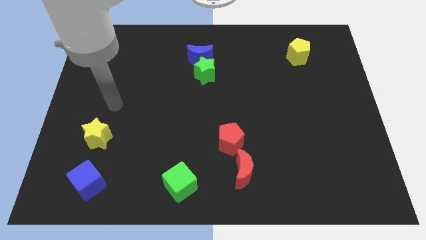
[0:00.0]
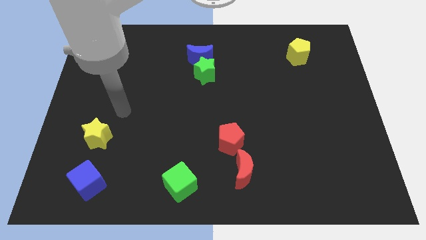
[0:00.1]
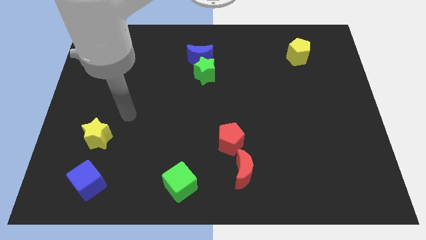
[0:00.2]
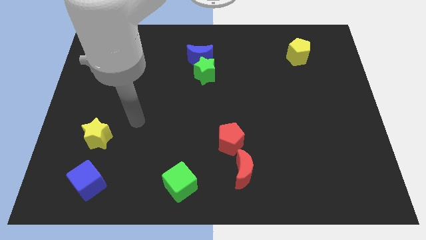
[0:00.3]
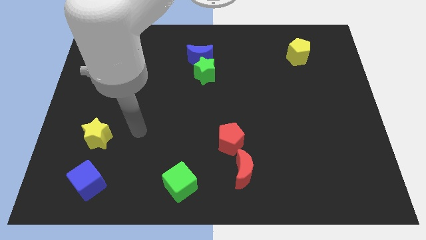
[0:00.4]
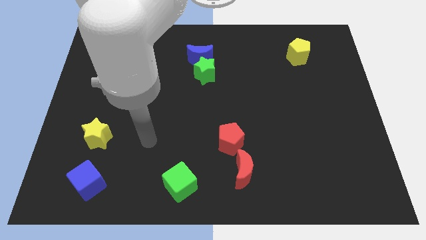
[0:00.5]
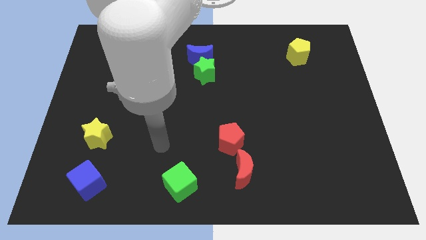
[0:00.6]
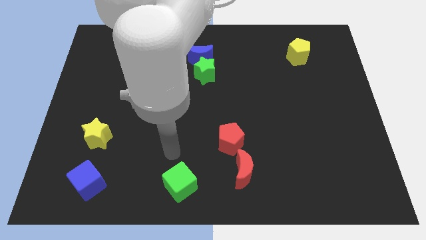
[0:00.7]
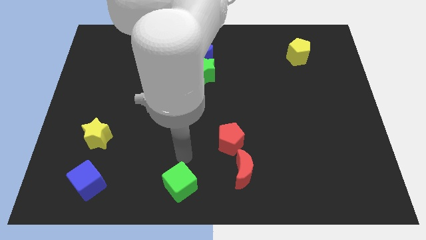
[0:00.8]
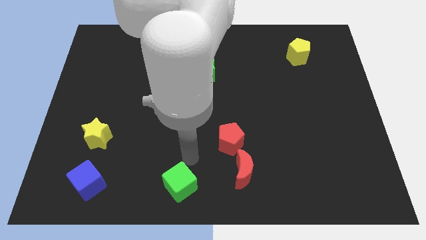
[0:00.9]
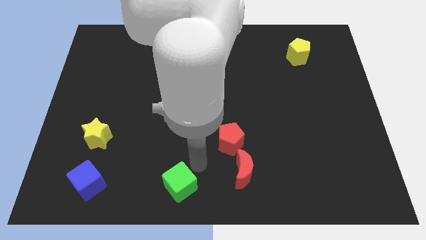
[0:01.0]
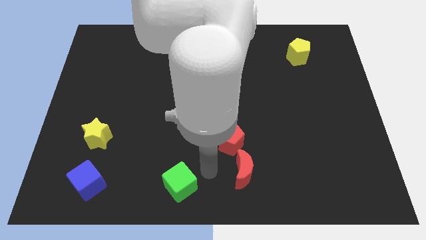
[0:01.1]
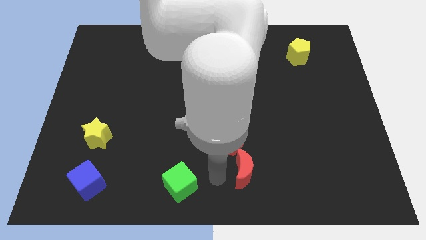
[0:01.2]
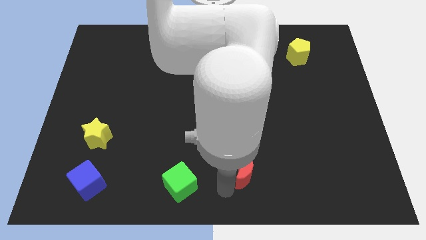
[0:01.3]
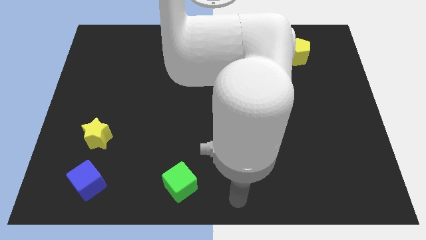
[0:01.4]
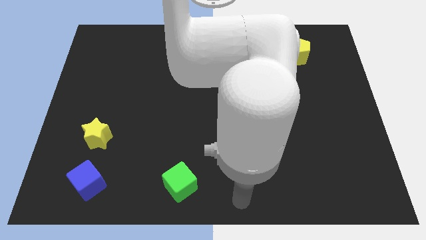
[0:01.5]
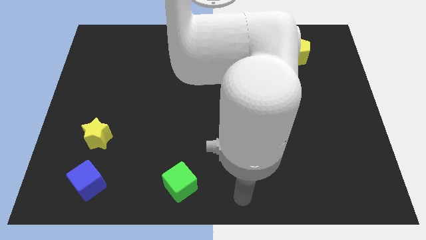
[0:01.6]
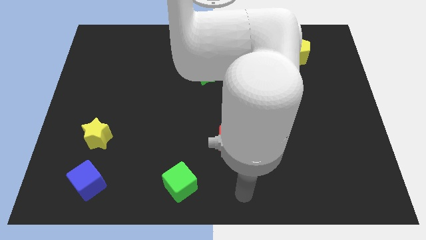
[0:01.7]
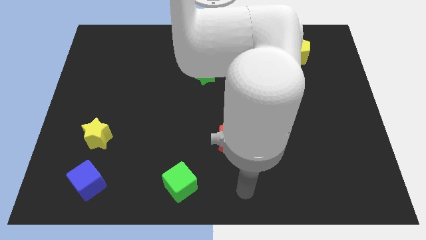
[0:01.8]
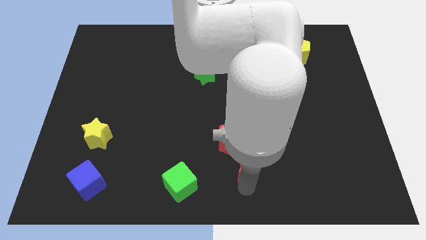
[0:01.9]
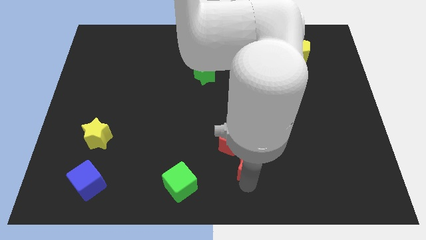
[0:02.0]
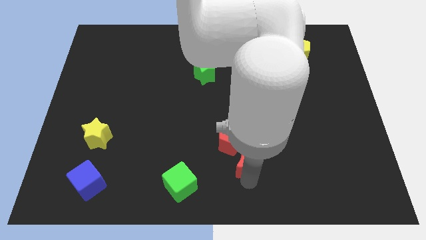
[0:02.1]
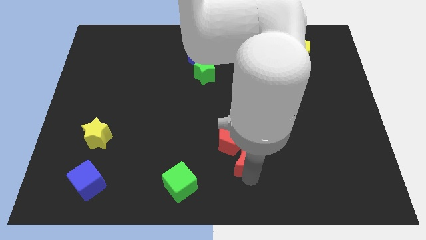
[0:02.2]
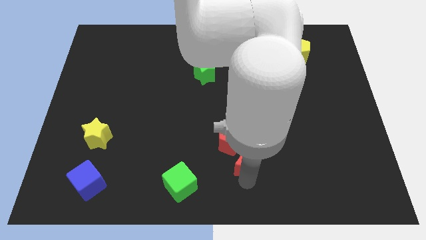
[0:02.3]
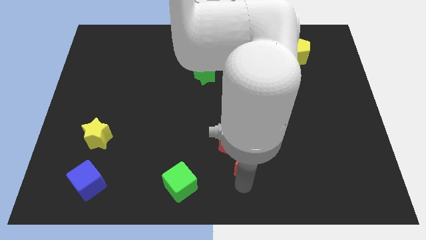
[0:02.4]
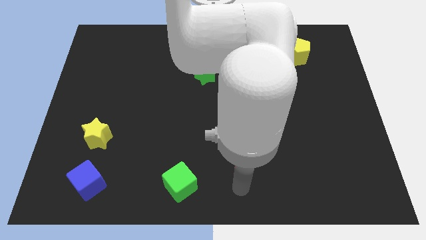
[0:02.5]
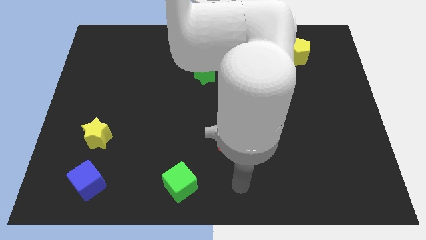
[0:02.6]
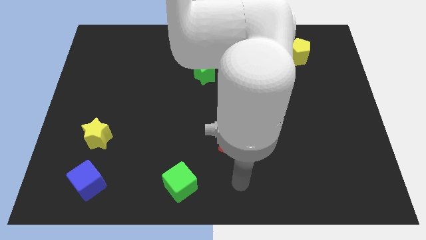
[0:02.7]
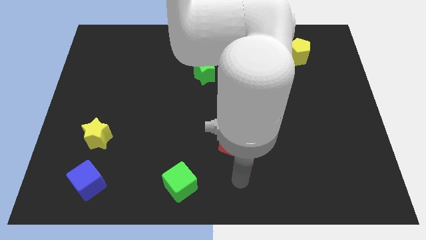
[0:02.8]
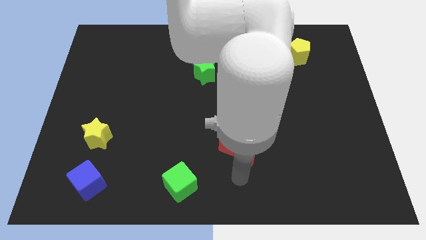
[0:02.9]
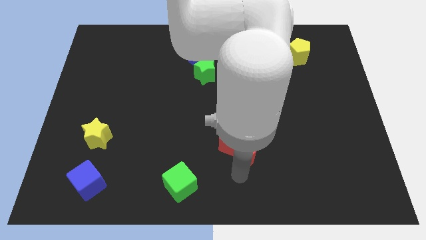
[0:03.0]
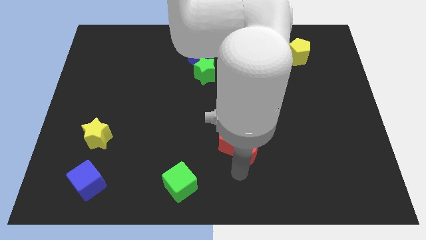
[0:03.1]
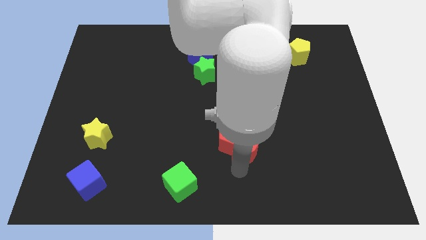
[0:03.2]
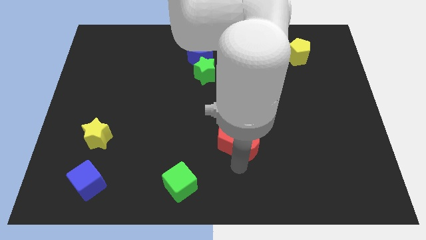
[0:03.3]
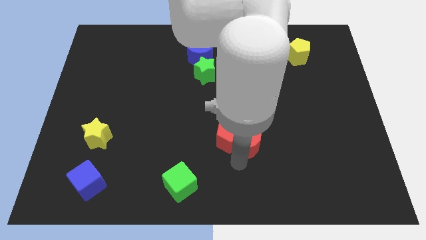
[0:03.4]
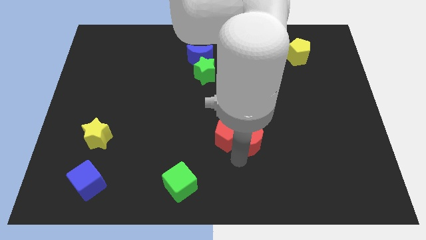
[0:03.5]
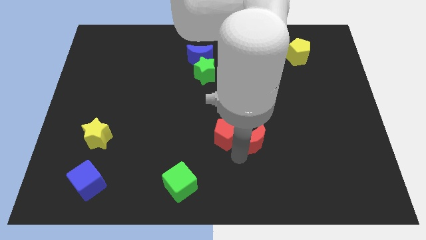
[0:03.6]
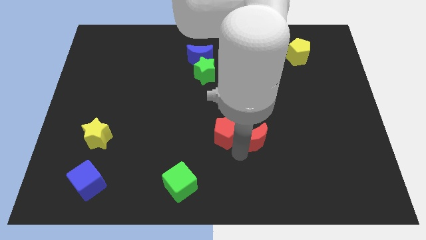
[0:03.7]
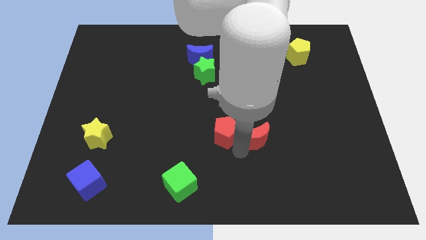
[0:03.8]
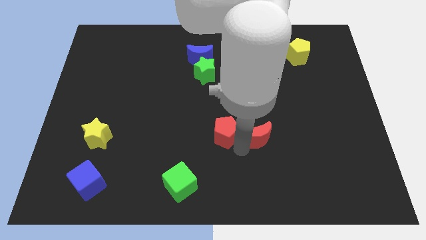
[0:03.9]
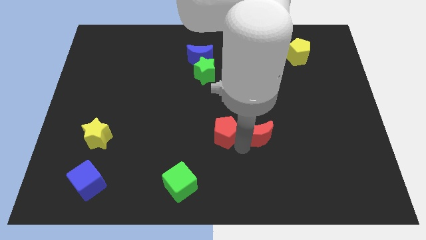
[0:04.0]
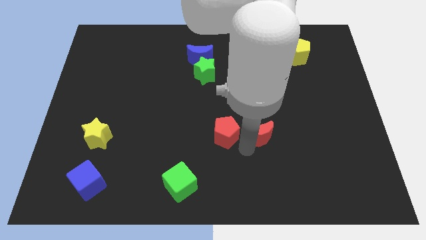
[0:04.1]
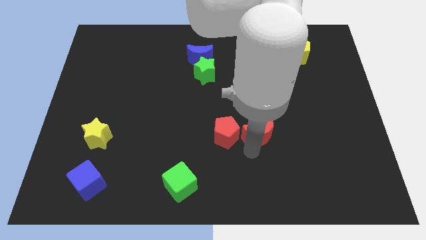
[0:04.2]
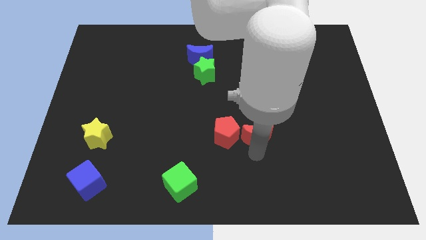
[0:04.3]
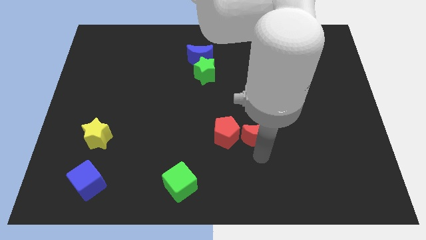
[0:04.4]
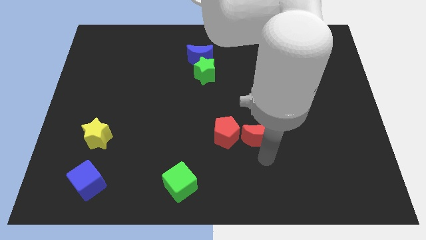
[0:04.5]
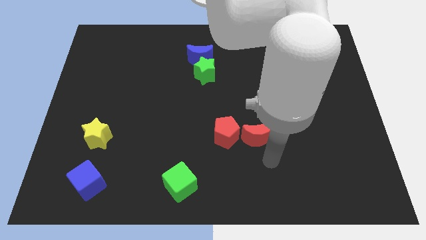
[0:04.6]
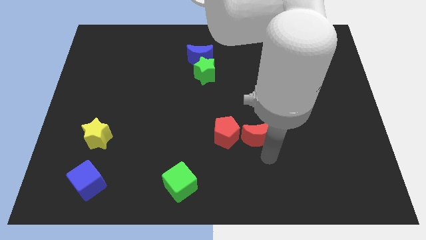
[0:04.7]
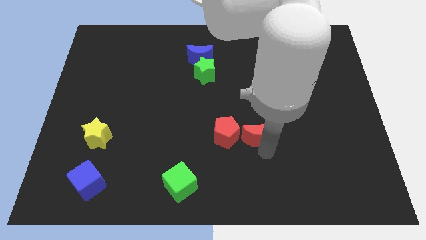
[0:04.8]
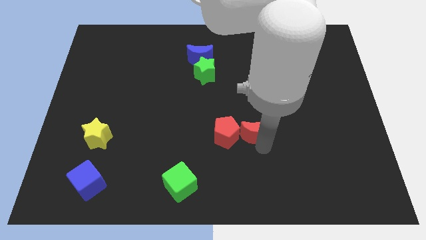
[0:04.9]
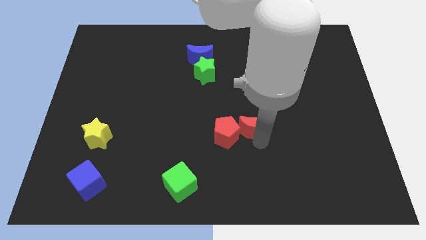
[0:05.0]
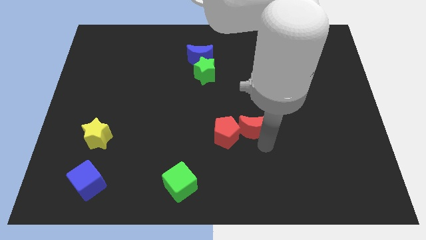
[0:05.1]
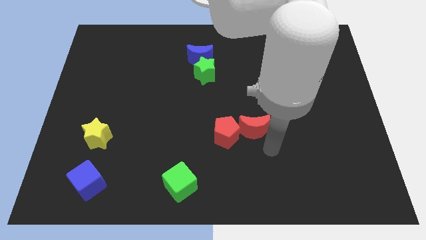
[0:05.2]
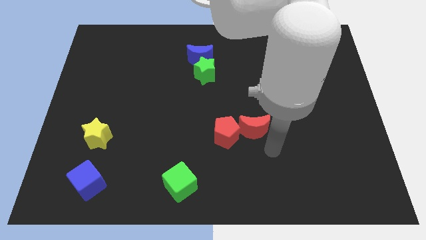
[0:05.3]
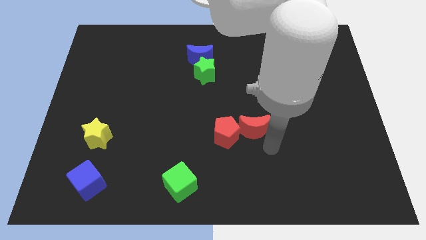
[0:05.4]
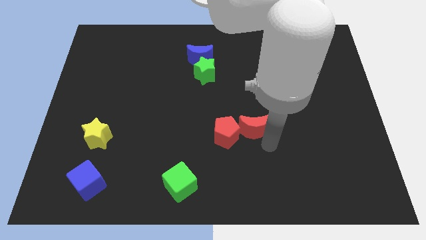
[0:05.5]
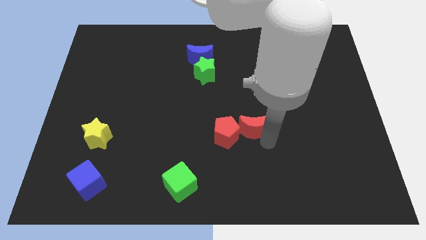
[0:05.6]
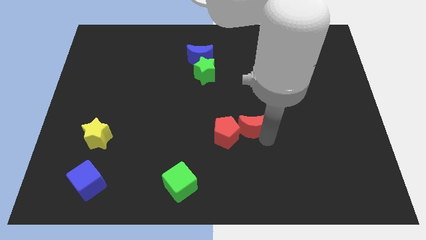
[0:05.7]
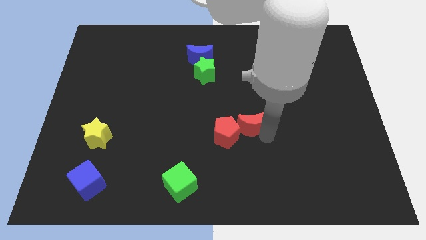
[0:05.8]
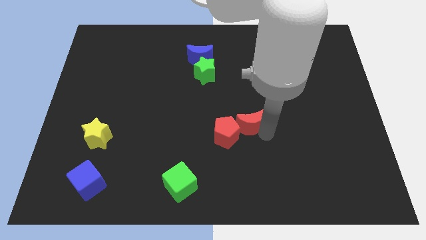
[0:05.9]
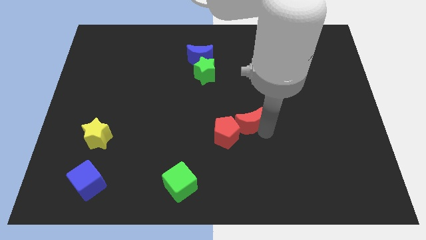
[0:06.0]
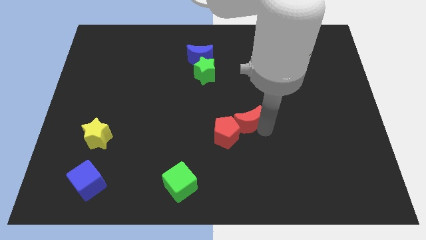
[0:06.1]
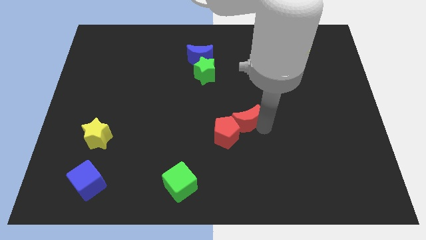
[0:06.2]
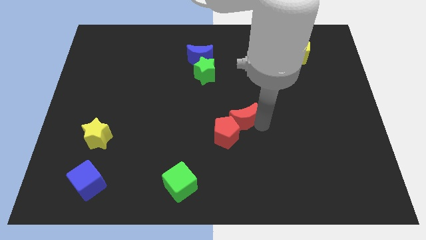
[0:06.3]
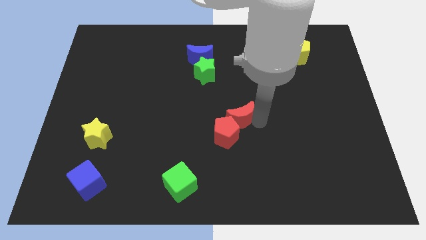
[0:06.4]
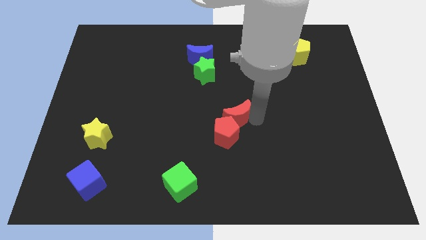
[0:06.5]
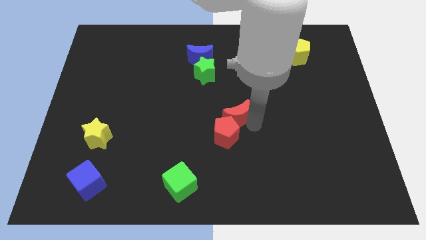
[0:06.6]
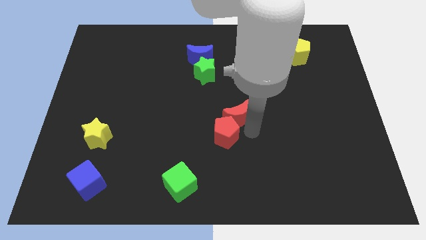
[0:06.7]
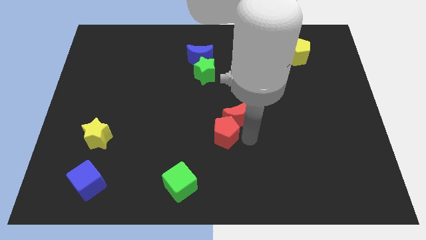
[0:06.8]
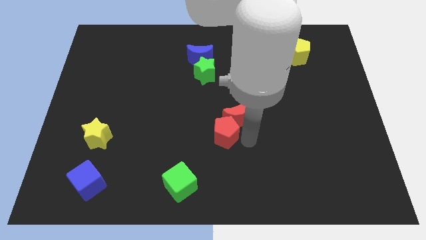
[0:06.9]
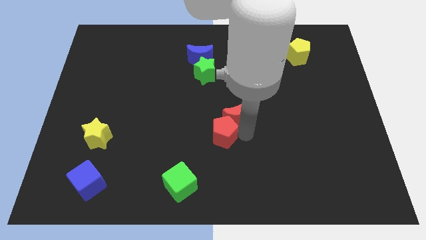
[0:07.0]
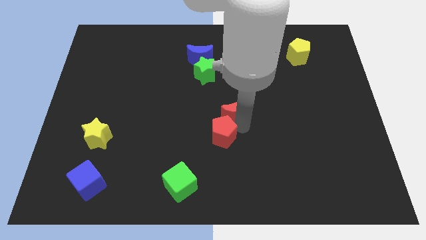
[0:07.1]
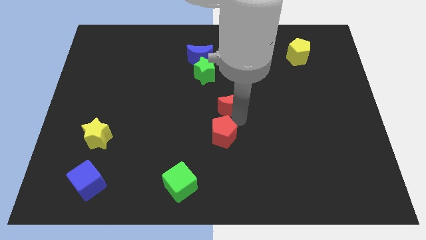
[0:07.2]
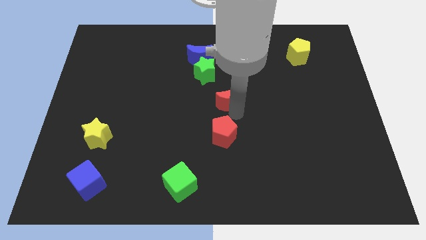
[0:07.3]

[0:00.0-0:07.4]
slide the red moon diagonally down and to the right of the green star
